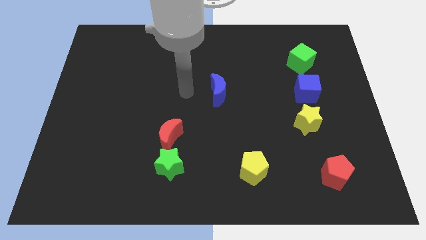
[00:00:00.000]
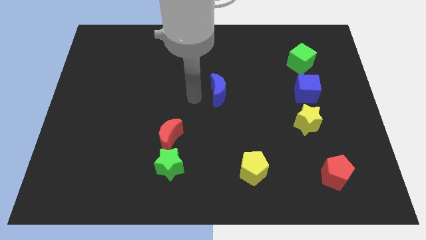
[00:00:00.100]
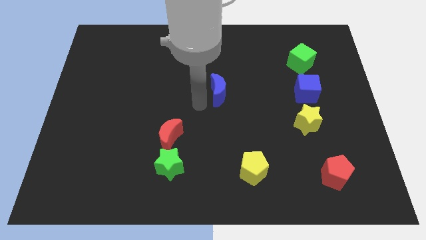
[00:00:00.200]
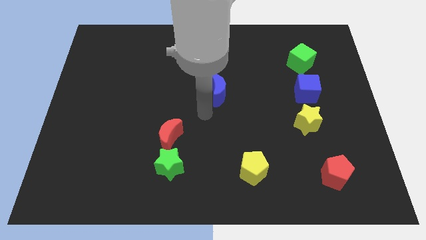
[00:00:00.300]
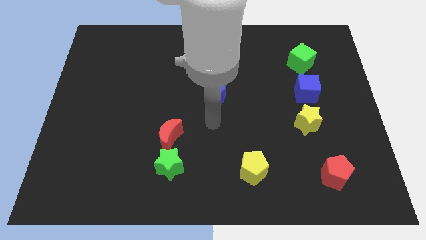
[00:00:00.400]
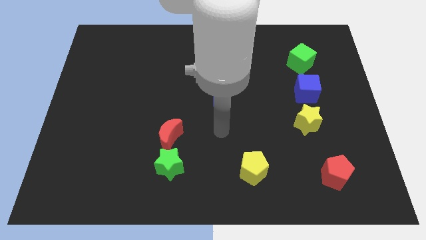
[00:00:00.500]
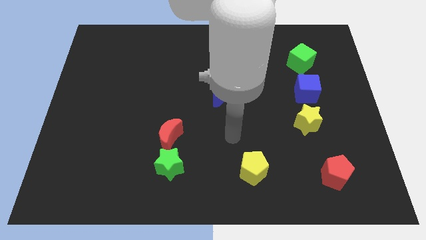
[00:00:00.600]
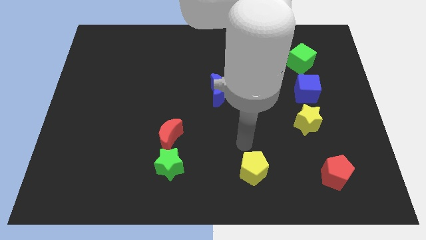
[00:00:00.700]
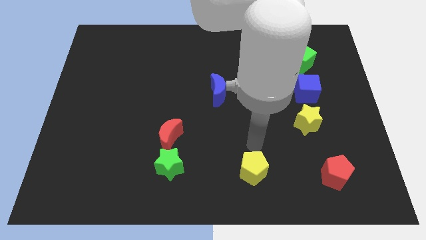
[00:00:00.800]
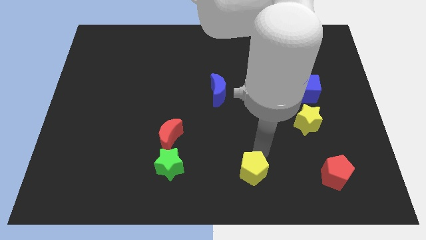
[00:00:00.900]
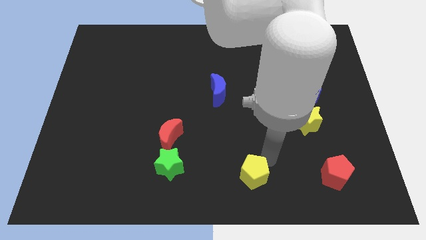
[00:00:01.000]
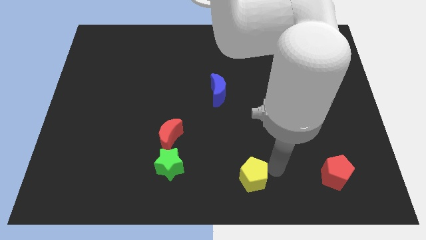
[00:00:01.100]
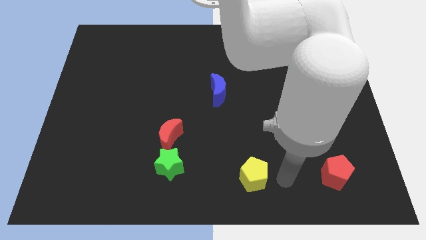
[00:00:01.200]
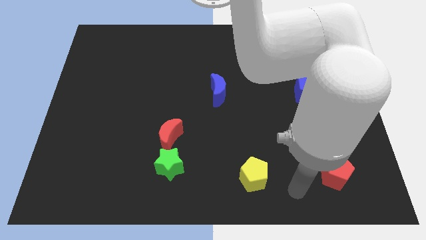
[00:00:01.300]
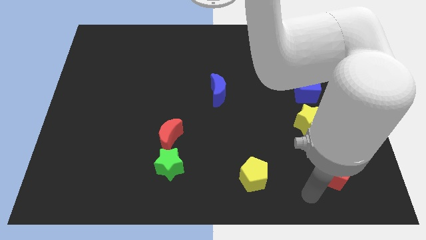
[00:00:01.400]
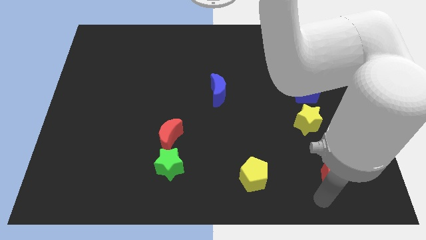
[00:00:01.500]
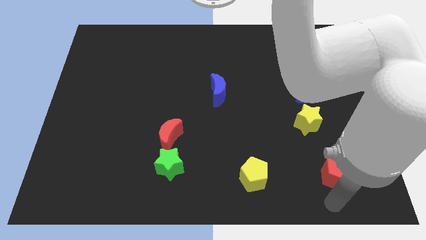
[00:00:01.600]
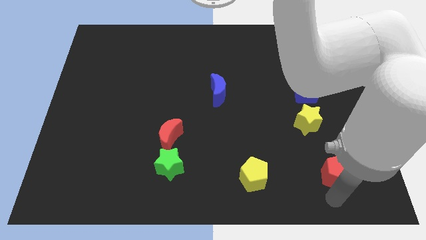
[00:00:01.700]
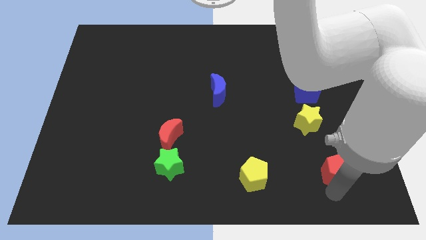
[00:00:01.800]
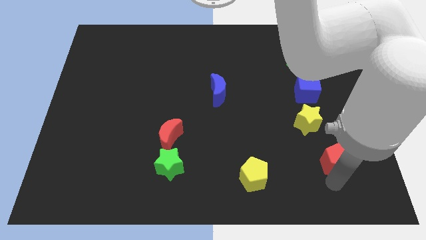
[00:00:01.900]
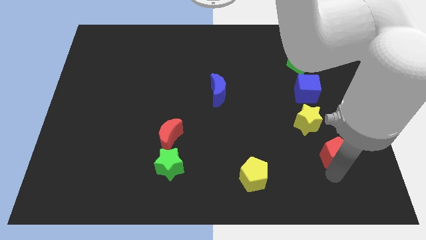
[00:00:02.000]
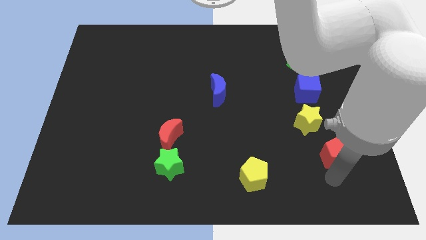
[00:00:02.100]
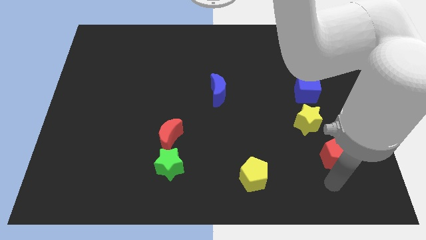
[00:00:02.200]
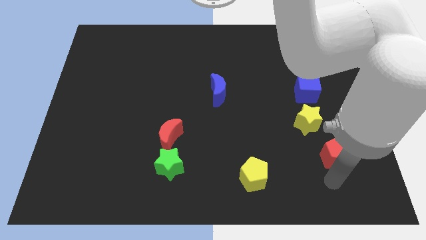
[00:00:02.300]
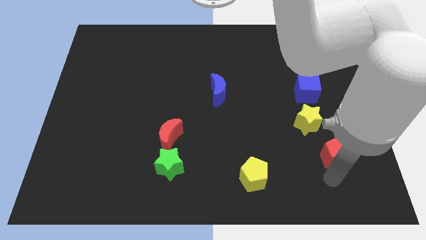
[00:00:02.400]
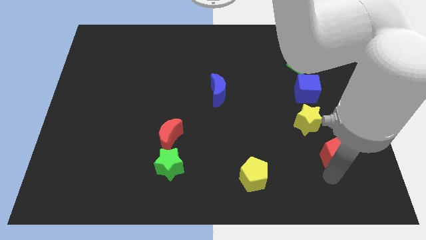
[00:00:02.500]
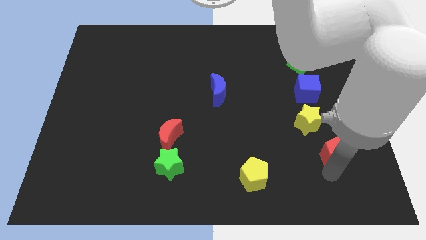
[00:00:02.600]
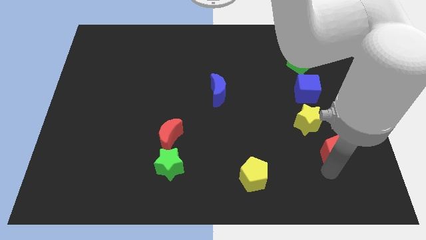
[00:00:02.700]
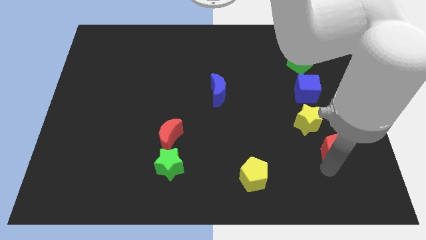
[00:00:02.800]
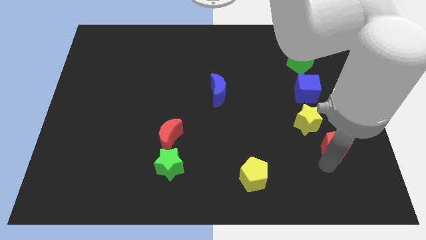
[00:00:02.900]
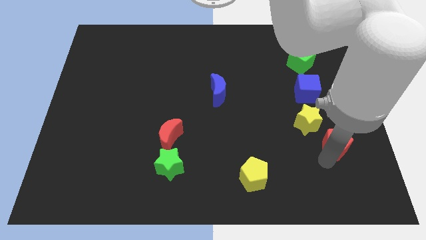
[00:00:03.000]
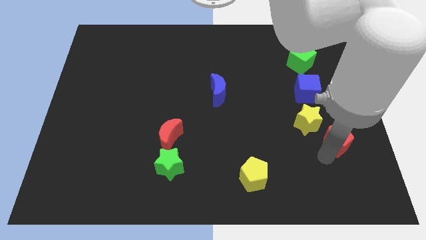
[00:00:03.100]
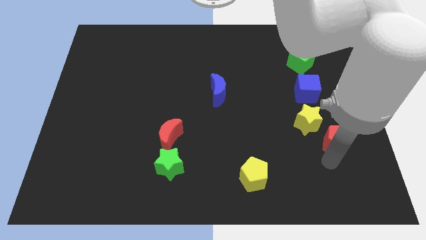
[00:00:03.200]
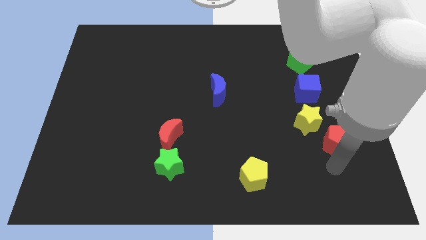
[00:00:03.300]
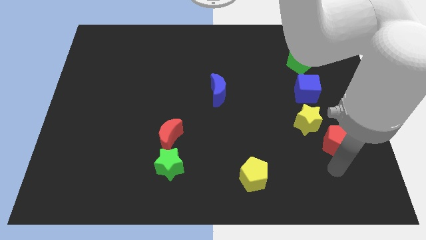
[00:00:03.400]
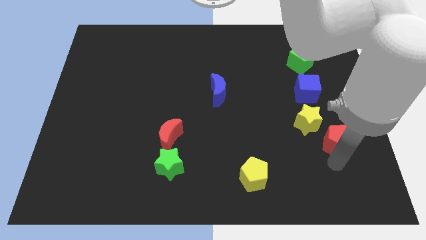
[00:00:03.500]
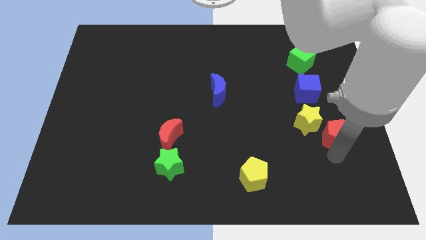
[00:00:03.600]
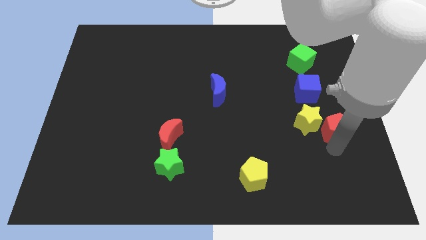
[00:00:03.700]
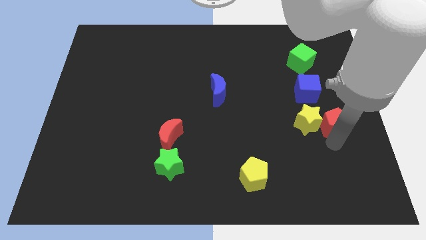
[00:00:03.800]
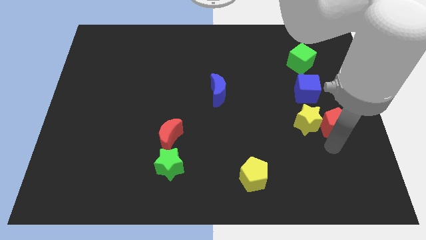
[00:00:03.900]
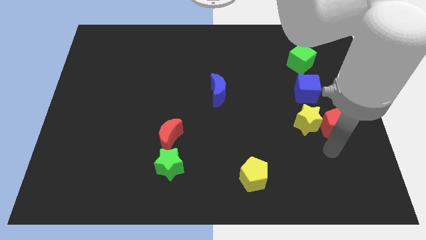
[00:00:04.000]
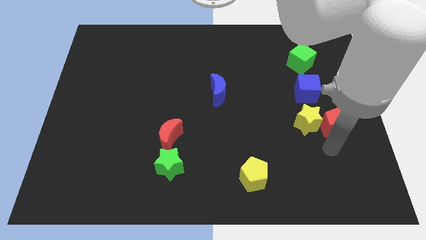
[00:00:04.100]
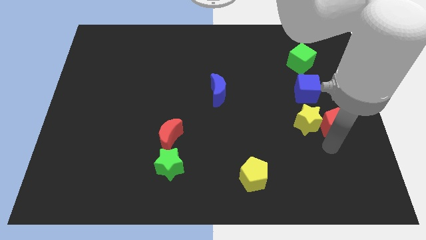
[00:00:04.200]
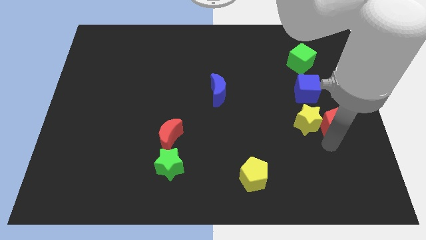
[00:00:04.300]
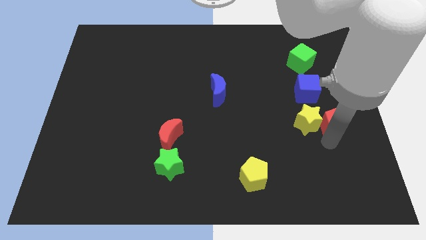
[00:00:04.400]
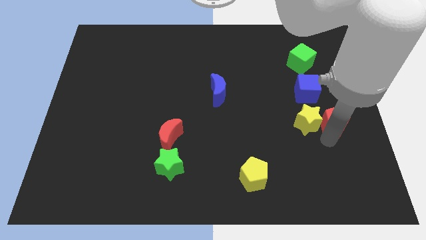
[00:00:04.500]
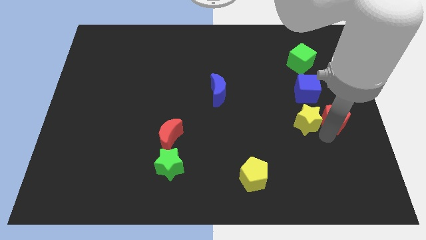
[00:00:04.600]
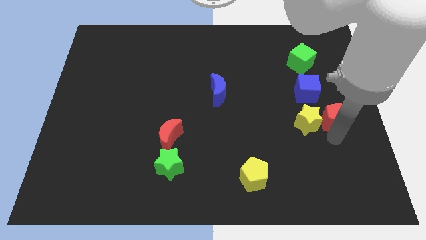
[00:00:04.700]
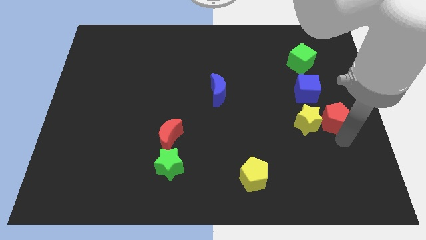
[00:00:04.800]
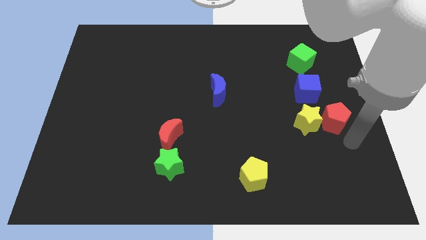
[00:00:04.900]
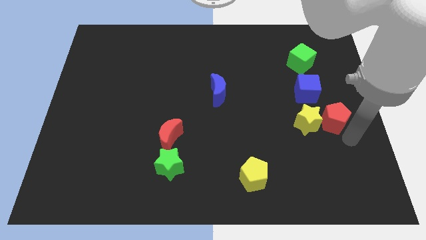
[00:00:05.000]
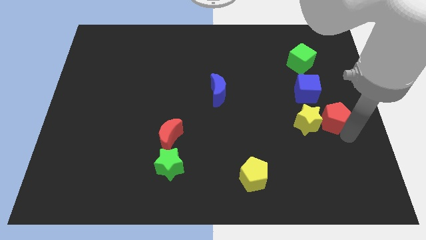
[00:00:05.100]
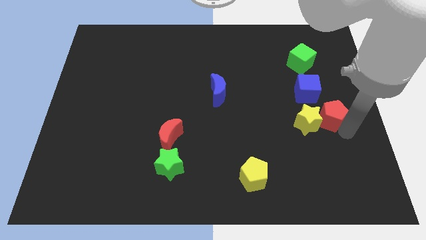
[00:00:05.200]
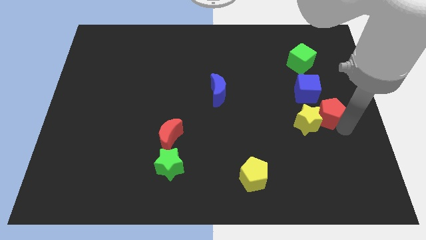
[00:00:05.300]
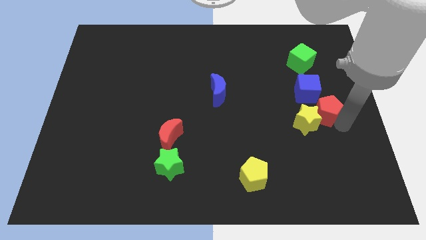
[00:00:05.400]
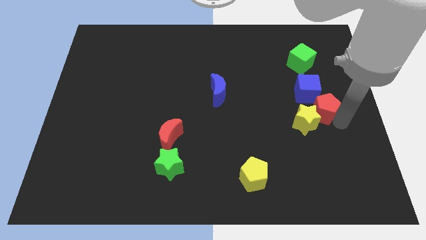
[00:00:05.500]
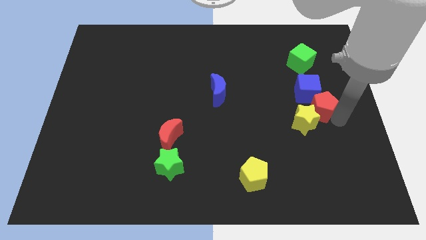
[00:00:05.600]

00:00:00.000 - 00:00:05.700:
push the red pentagon to the blue cube

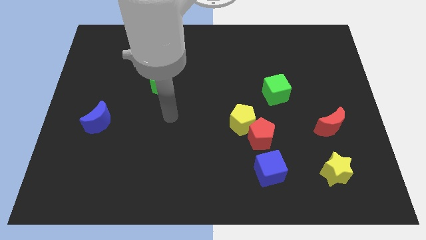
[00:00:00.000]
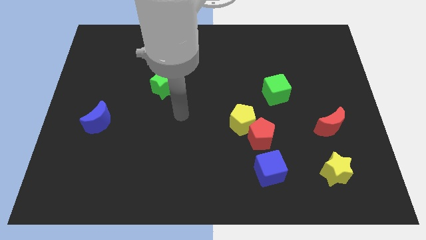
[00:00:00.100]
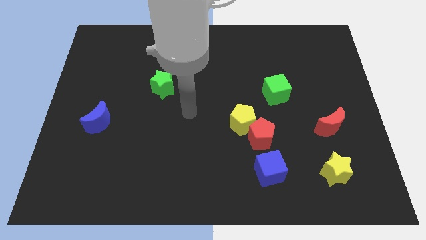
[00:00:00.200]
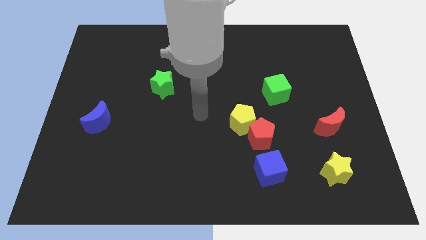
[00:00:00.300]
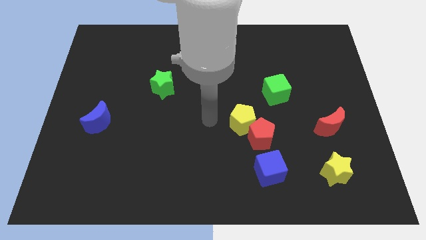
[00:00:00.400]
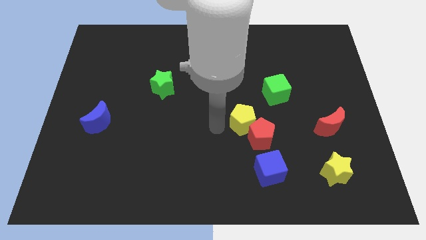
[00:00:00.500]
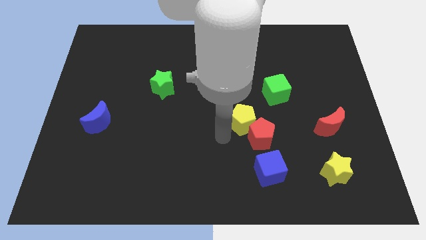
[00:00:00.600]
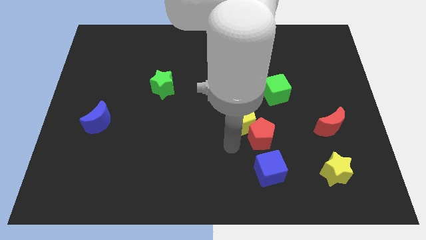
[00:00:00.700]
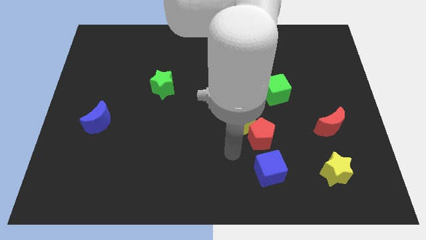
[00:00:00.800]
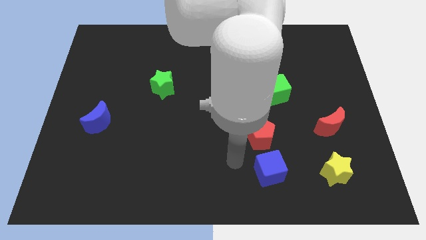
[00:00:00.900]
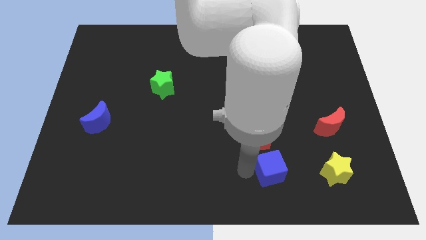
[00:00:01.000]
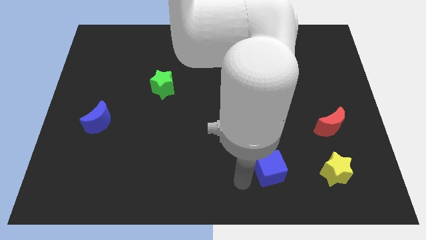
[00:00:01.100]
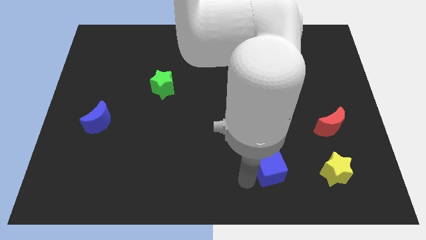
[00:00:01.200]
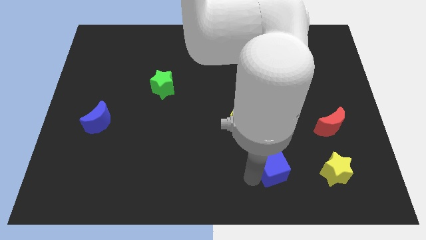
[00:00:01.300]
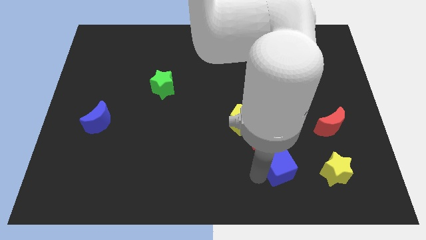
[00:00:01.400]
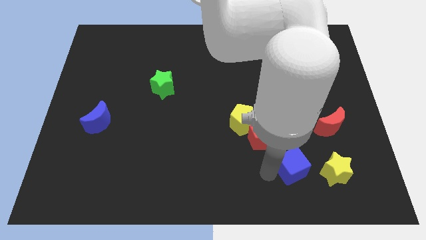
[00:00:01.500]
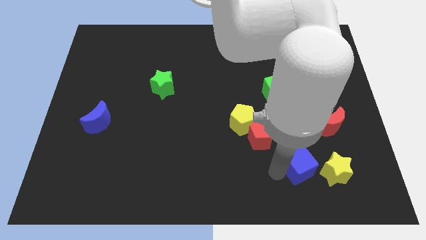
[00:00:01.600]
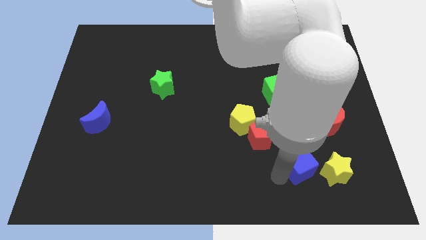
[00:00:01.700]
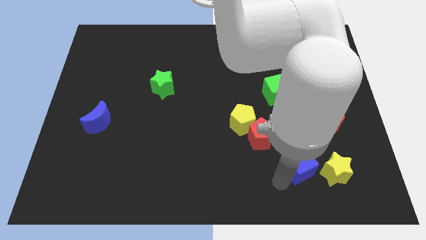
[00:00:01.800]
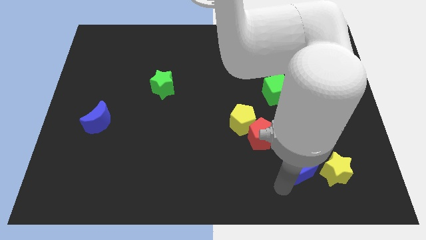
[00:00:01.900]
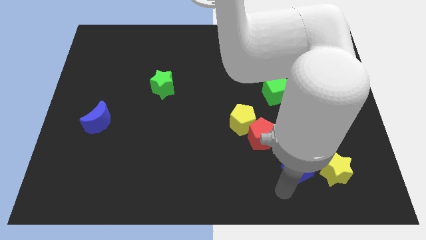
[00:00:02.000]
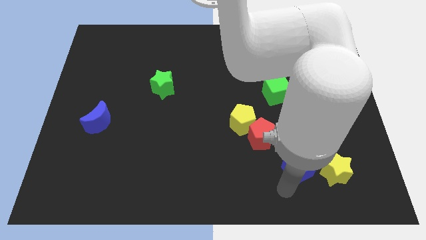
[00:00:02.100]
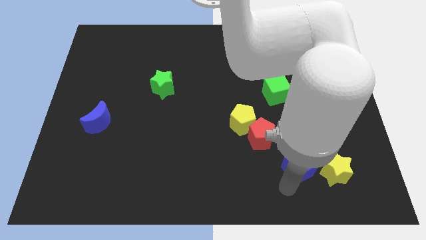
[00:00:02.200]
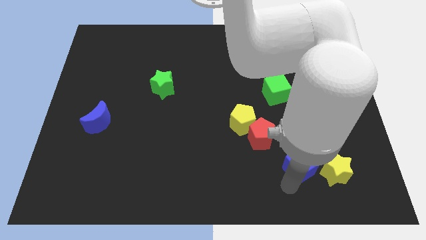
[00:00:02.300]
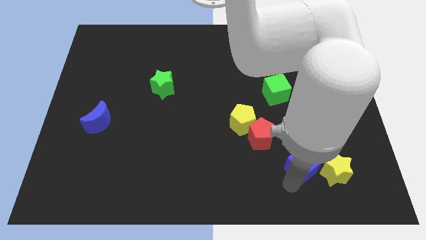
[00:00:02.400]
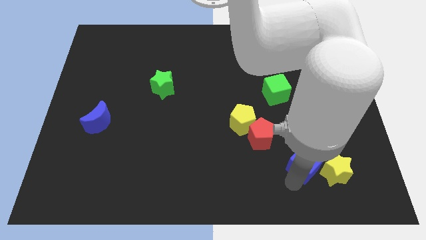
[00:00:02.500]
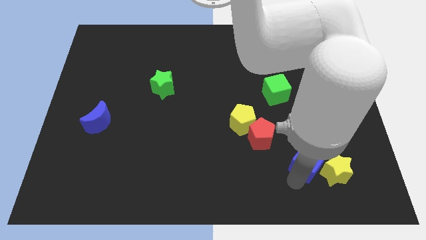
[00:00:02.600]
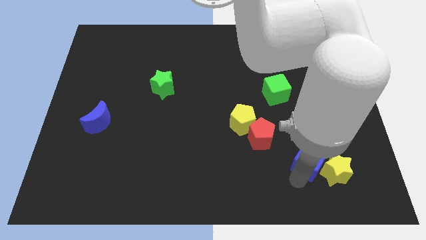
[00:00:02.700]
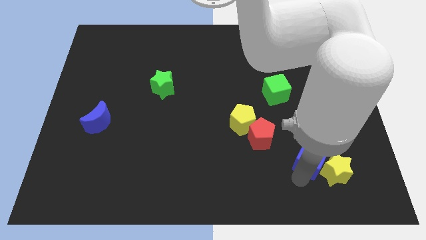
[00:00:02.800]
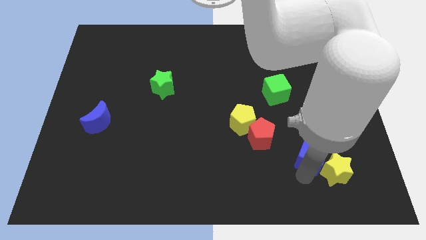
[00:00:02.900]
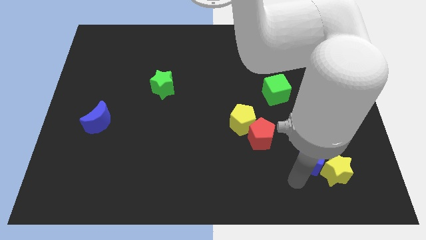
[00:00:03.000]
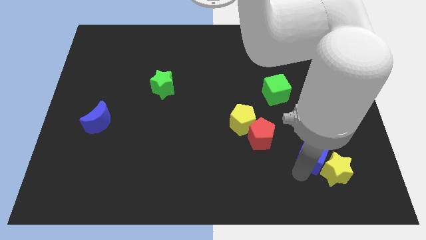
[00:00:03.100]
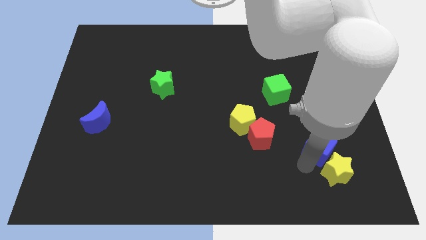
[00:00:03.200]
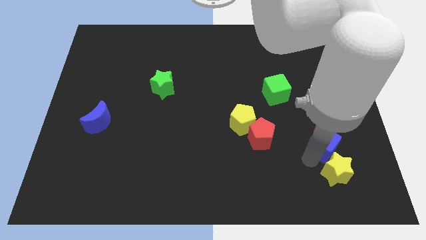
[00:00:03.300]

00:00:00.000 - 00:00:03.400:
move the blue cube next to the red moon
